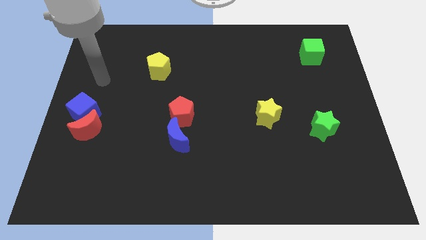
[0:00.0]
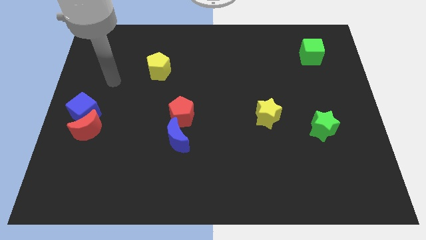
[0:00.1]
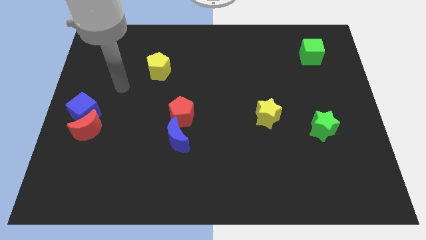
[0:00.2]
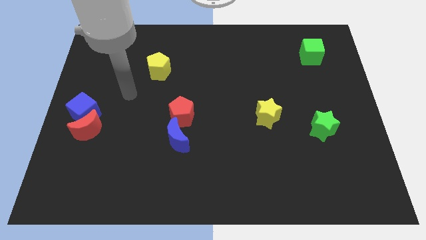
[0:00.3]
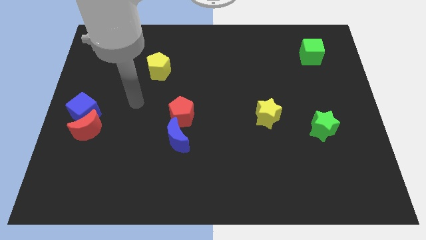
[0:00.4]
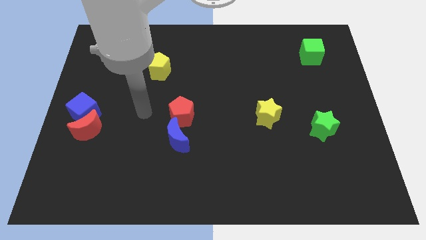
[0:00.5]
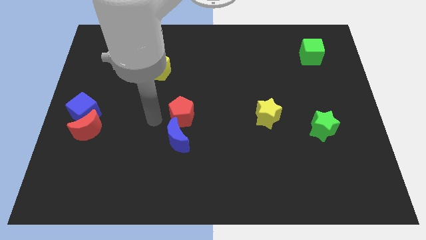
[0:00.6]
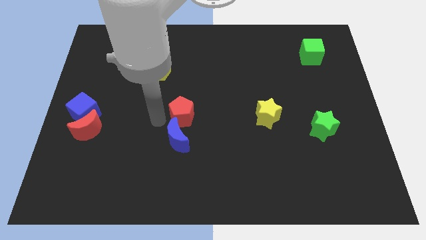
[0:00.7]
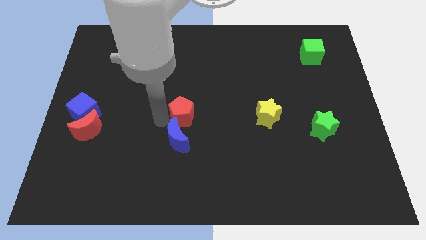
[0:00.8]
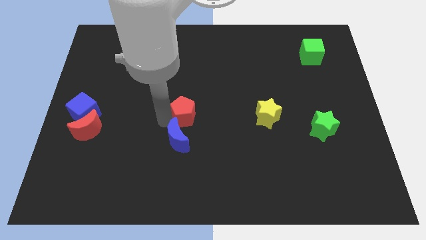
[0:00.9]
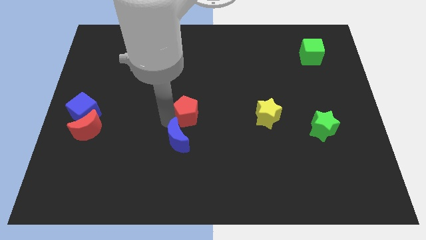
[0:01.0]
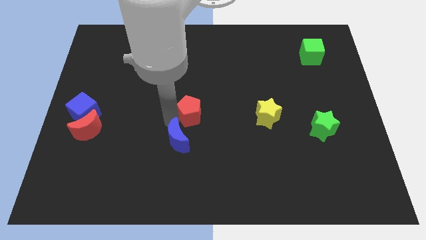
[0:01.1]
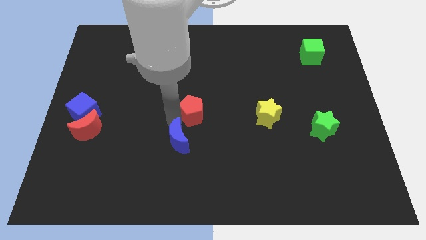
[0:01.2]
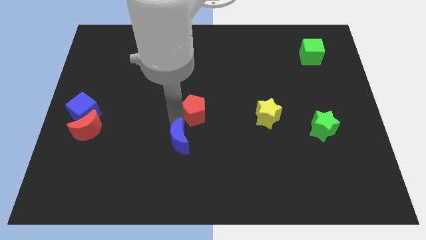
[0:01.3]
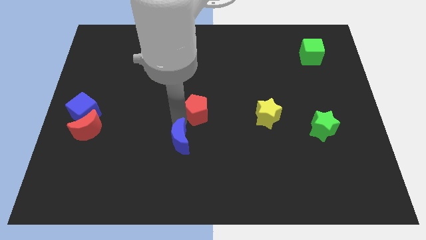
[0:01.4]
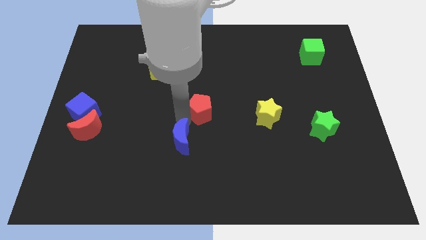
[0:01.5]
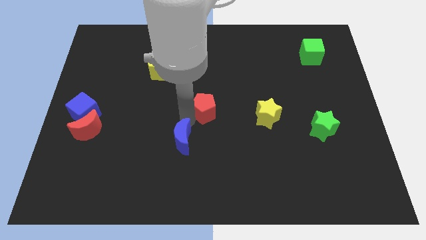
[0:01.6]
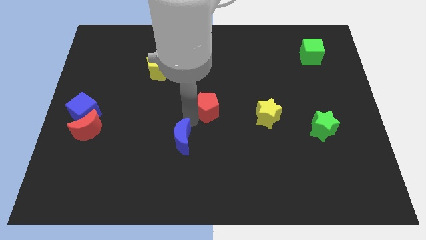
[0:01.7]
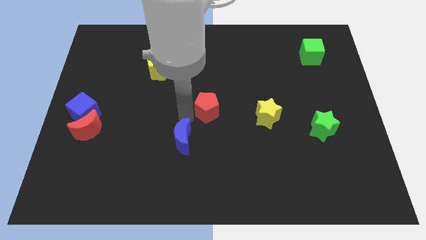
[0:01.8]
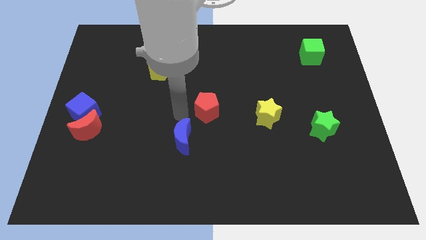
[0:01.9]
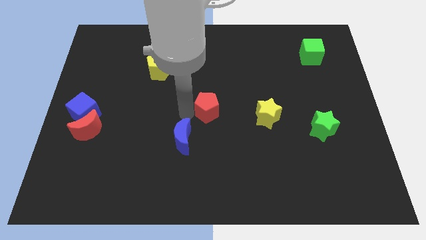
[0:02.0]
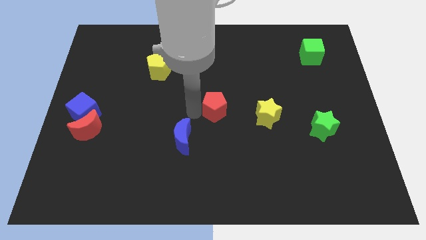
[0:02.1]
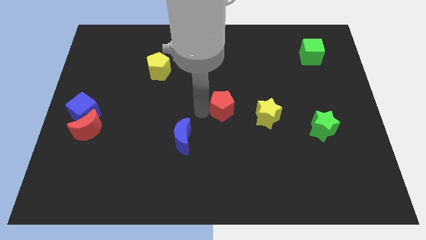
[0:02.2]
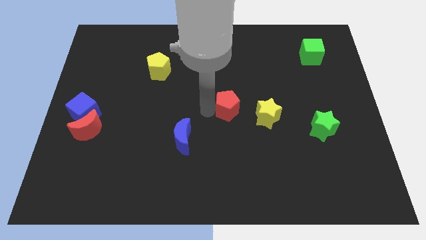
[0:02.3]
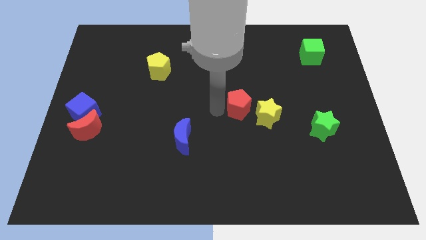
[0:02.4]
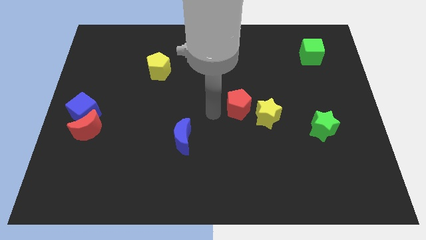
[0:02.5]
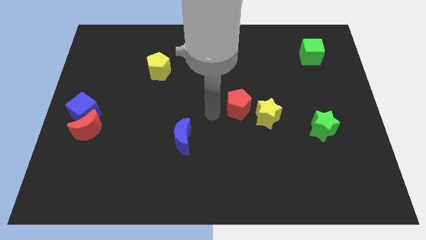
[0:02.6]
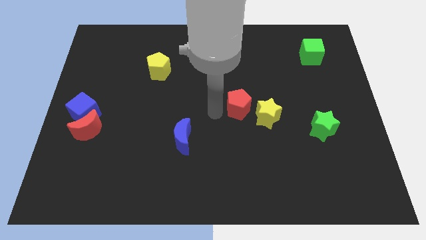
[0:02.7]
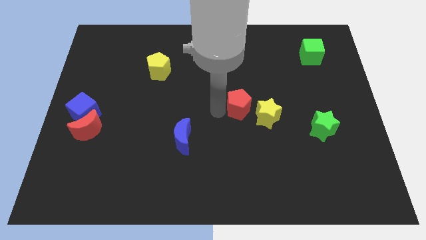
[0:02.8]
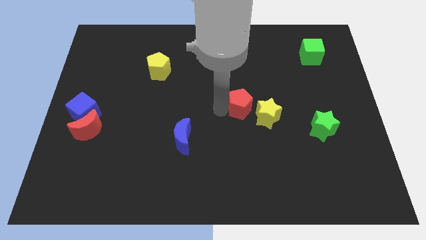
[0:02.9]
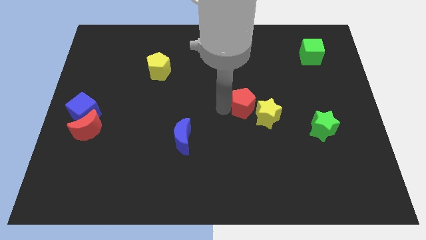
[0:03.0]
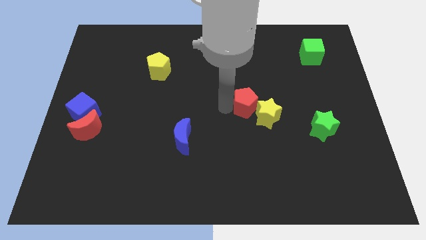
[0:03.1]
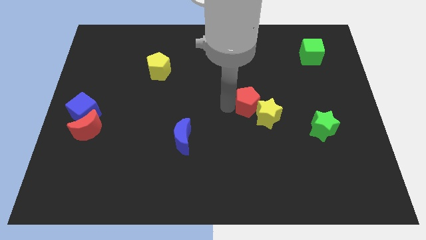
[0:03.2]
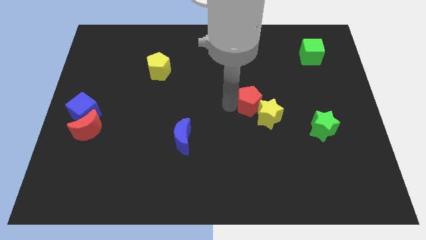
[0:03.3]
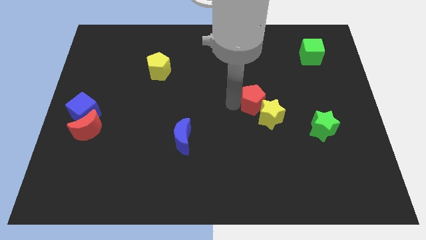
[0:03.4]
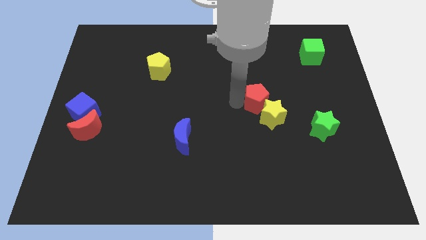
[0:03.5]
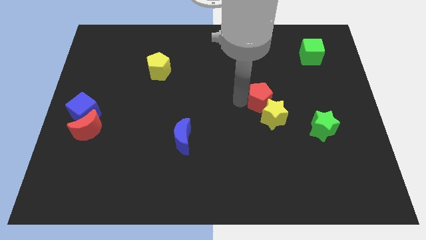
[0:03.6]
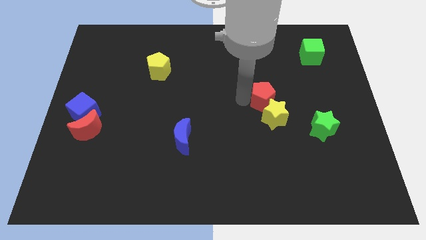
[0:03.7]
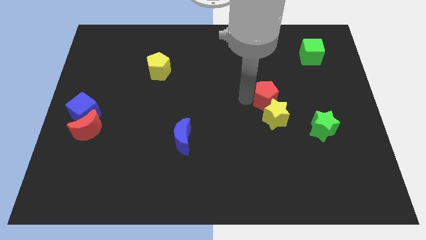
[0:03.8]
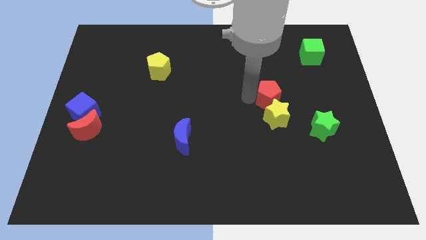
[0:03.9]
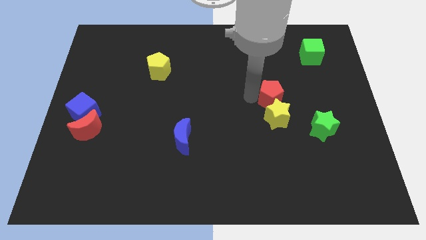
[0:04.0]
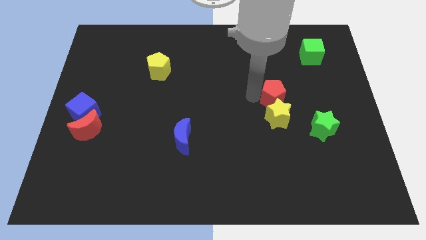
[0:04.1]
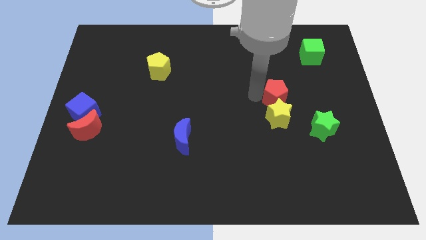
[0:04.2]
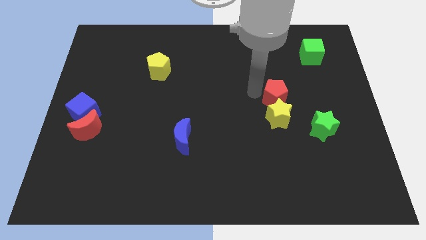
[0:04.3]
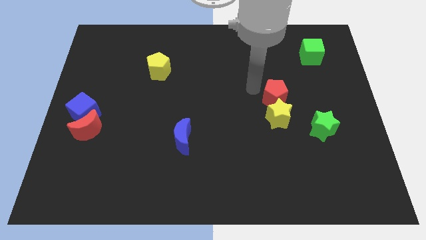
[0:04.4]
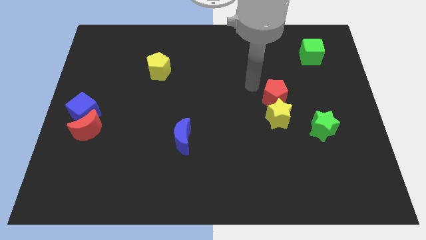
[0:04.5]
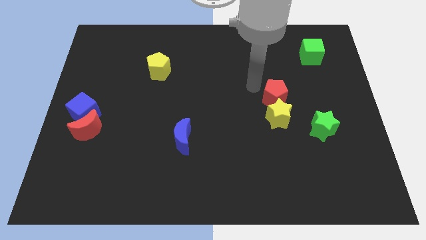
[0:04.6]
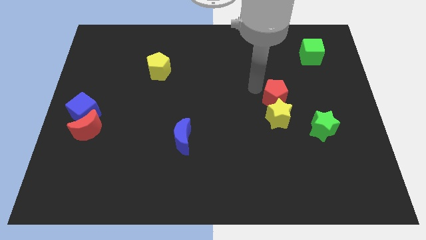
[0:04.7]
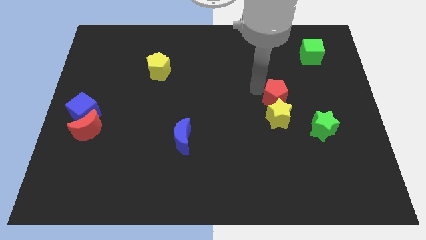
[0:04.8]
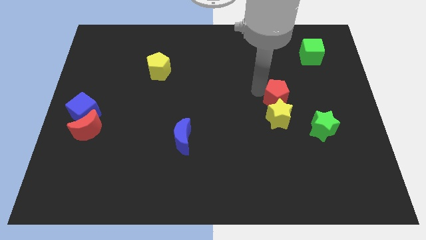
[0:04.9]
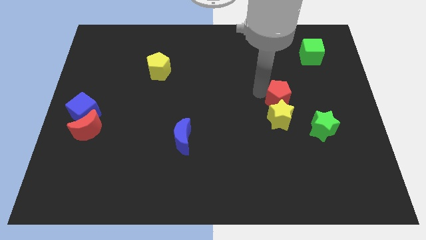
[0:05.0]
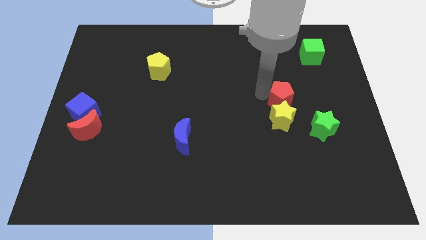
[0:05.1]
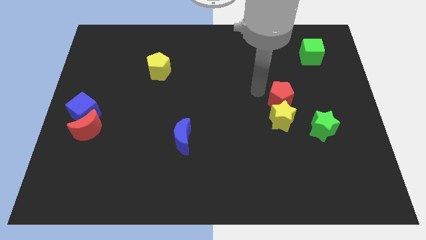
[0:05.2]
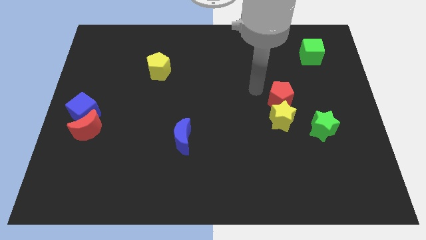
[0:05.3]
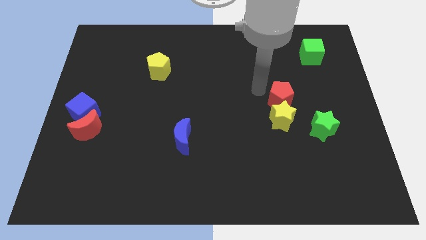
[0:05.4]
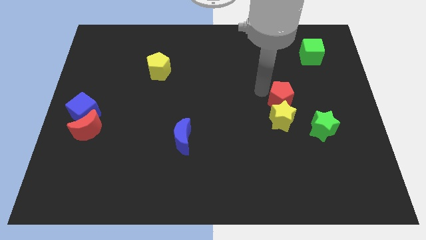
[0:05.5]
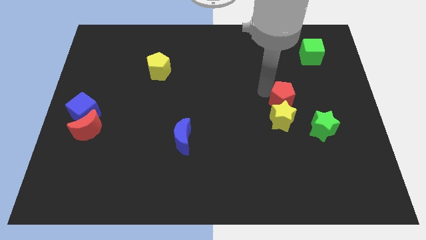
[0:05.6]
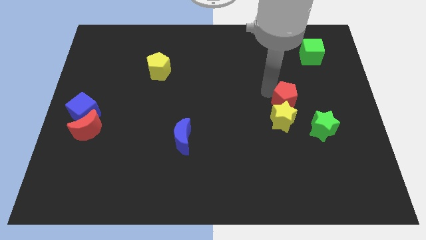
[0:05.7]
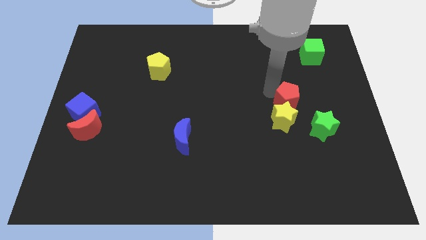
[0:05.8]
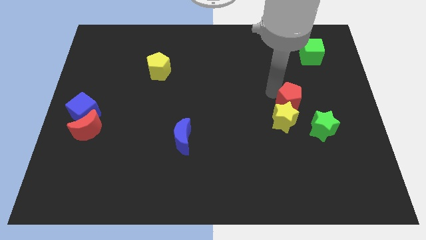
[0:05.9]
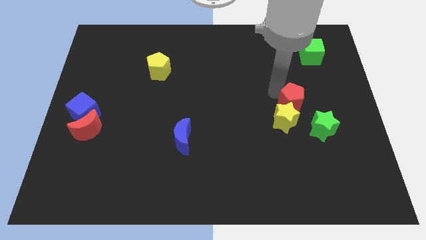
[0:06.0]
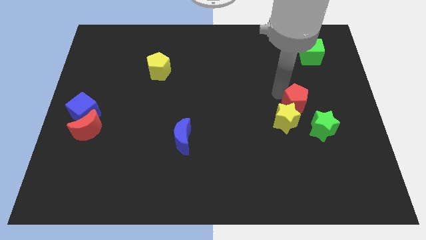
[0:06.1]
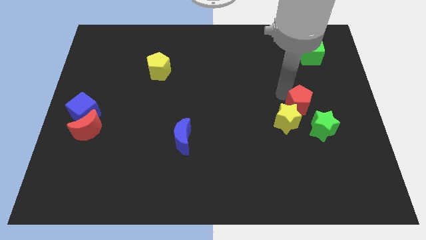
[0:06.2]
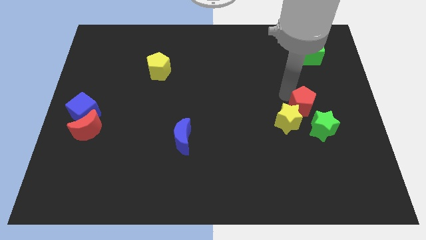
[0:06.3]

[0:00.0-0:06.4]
slide the red pentagon to the right of the yellow star

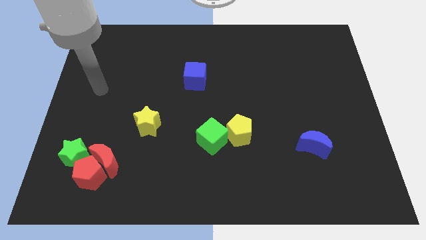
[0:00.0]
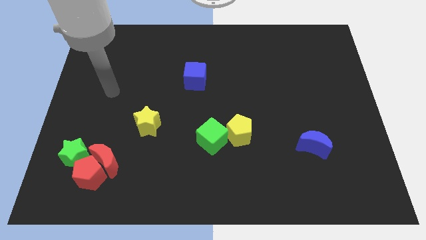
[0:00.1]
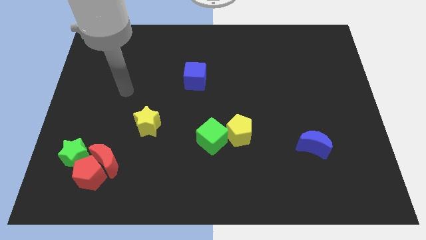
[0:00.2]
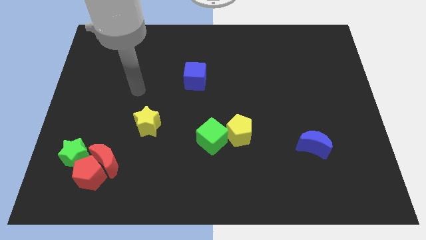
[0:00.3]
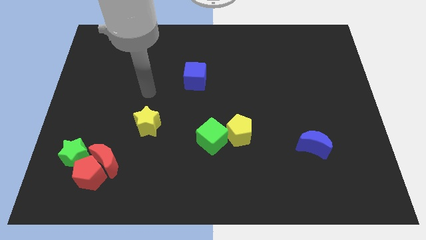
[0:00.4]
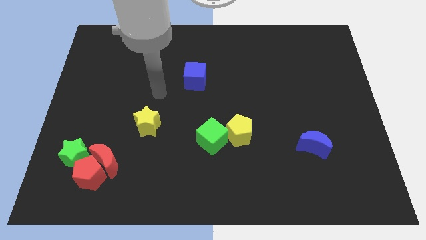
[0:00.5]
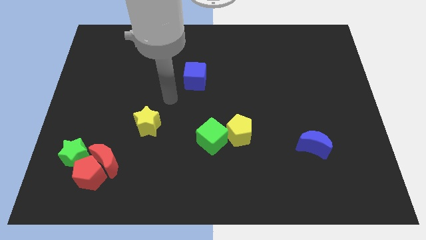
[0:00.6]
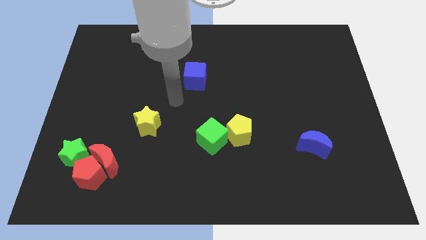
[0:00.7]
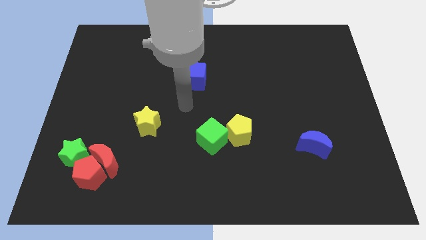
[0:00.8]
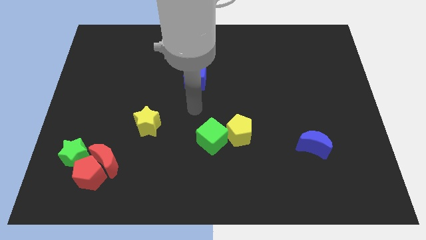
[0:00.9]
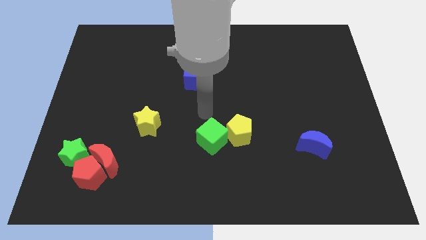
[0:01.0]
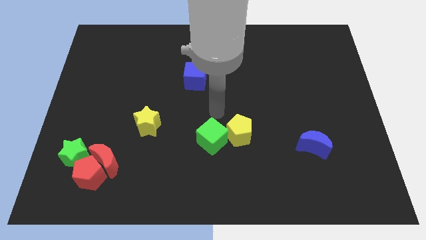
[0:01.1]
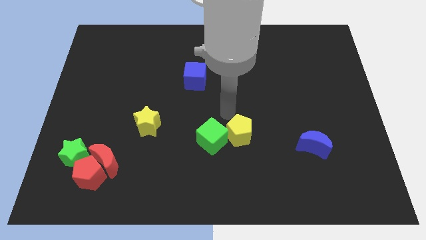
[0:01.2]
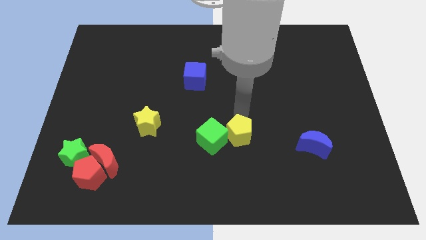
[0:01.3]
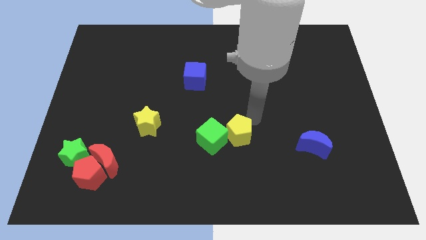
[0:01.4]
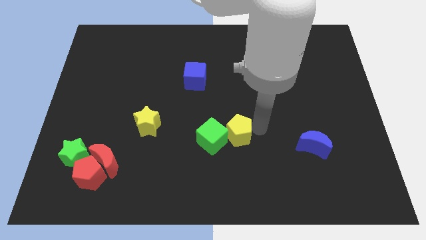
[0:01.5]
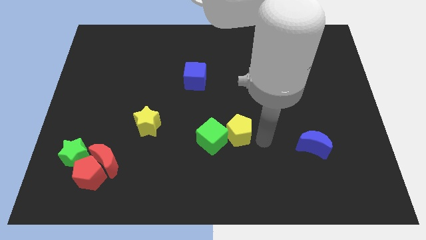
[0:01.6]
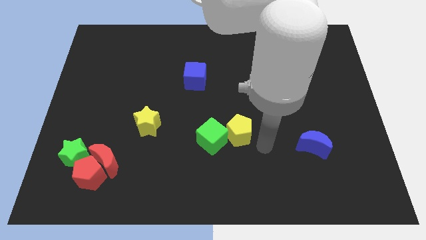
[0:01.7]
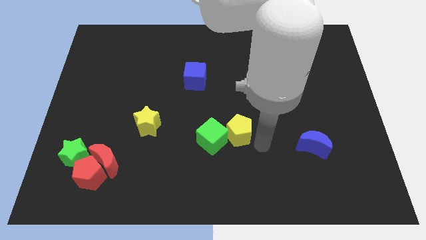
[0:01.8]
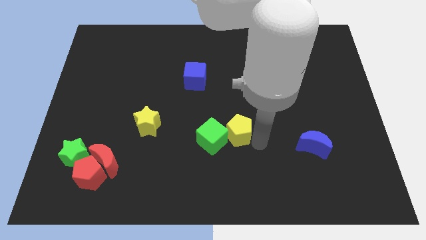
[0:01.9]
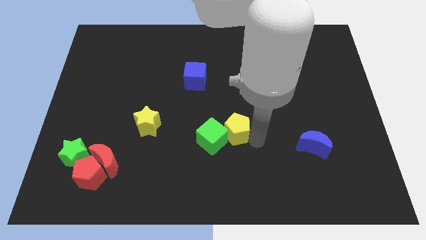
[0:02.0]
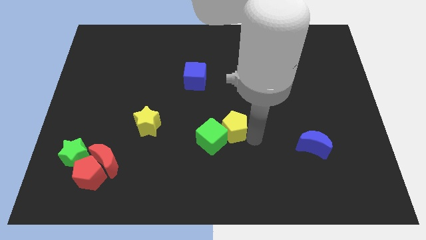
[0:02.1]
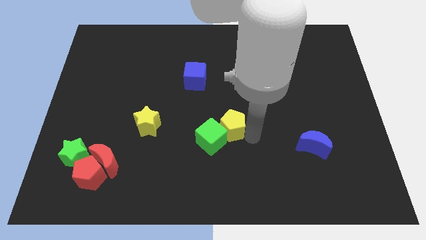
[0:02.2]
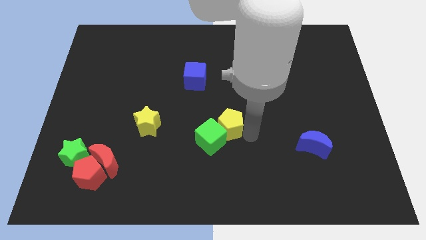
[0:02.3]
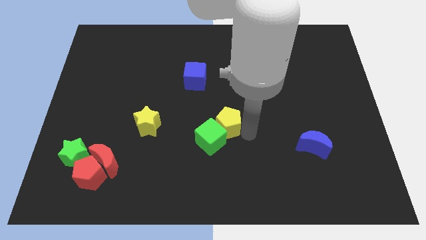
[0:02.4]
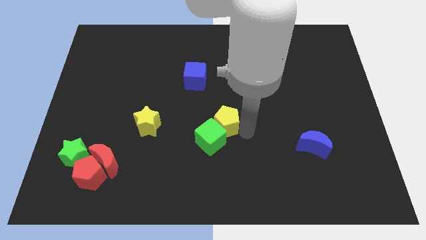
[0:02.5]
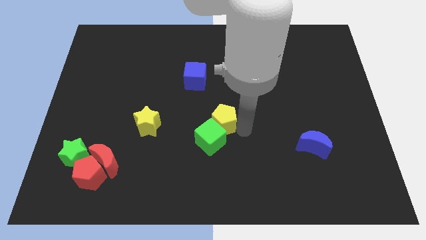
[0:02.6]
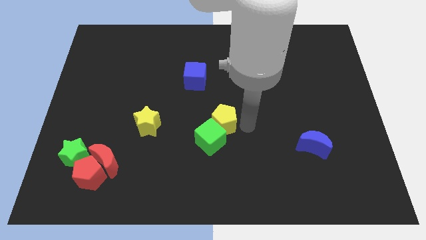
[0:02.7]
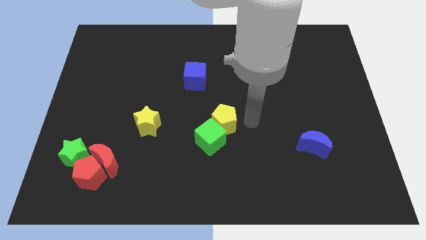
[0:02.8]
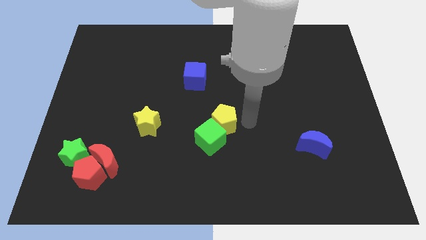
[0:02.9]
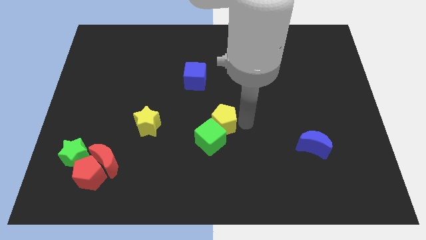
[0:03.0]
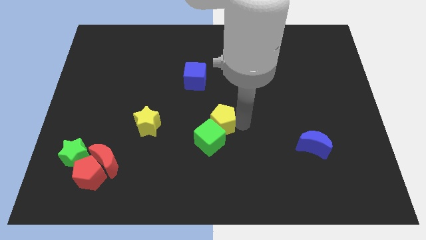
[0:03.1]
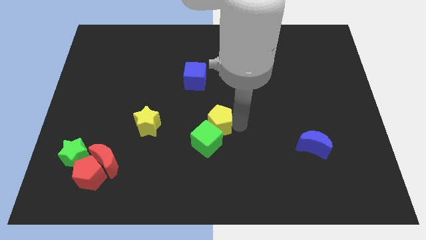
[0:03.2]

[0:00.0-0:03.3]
push the yellow pentagon right of the yellow star
